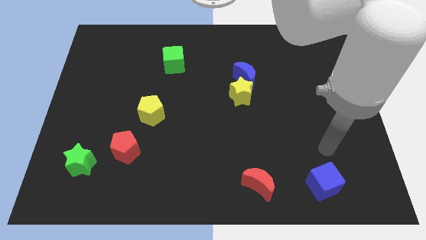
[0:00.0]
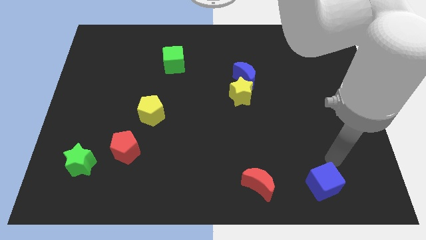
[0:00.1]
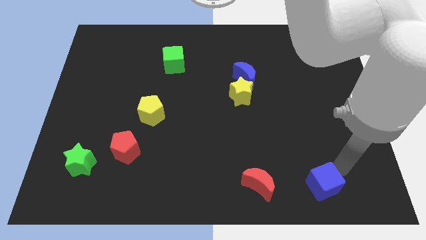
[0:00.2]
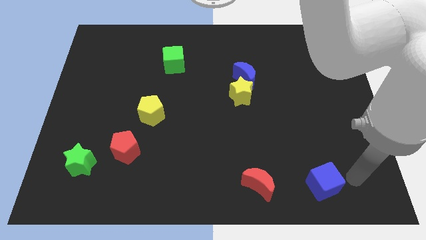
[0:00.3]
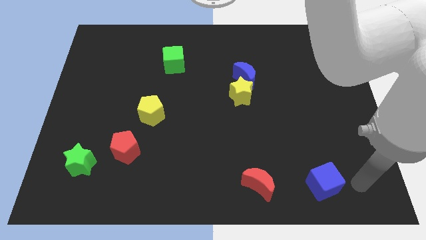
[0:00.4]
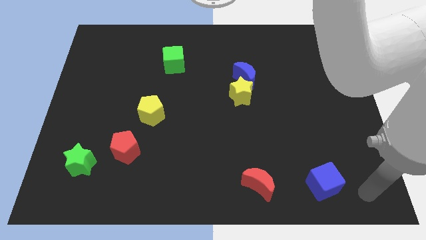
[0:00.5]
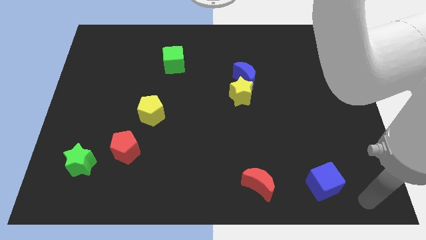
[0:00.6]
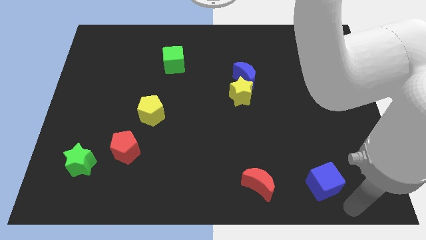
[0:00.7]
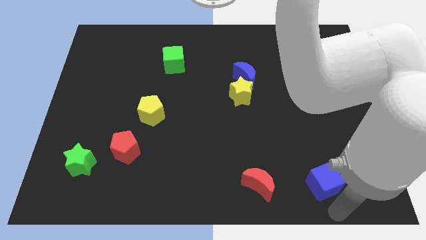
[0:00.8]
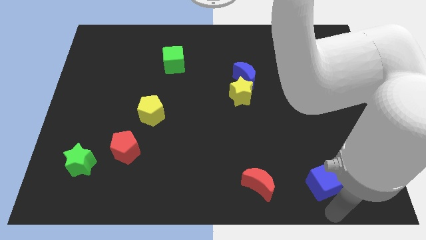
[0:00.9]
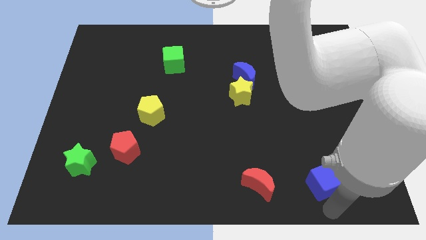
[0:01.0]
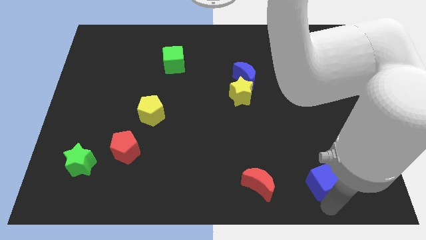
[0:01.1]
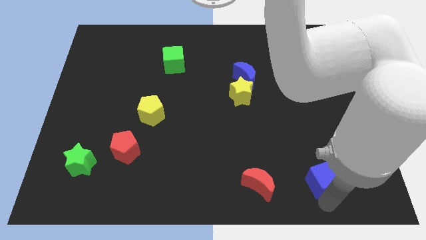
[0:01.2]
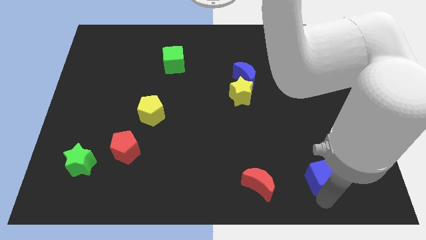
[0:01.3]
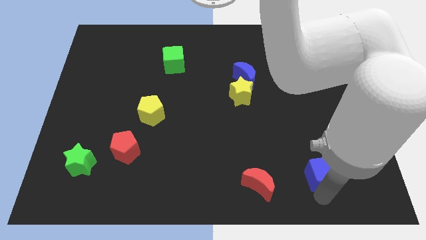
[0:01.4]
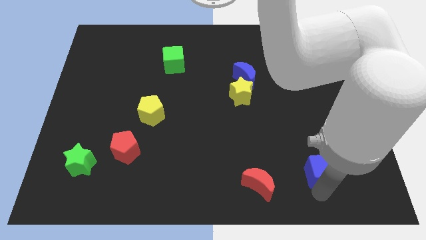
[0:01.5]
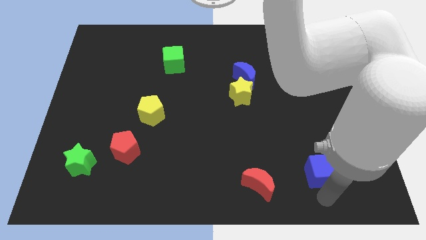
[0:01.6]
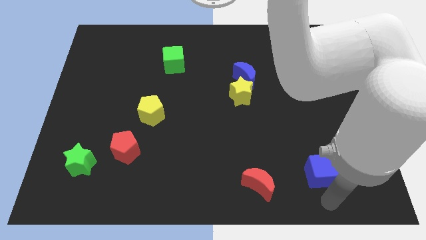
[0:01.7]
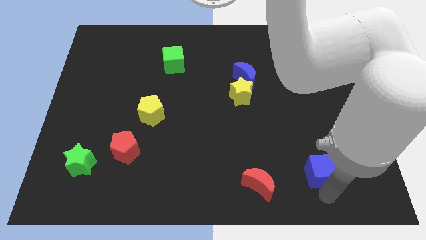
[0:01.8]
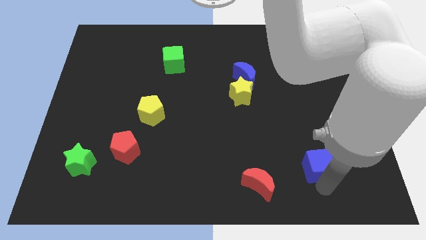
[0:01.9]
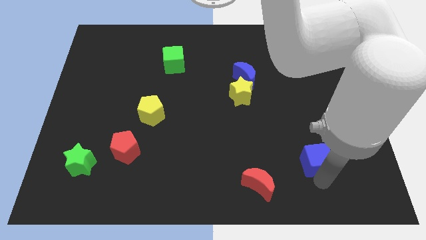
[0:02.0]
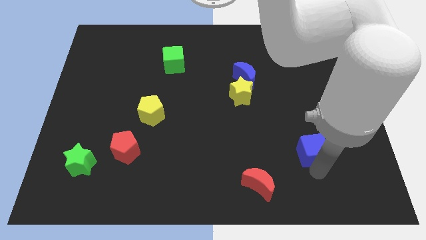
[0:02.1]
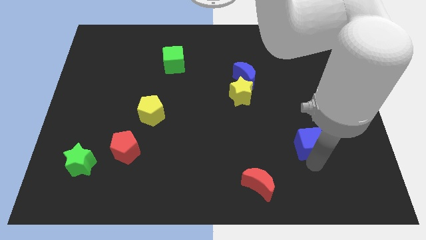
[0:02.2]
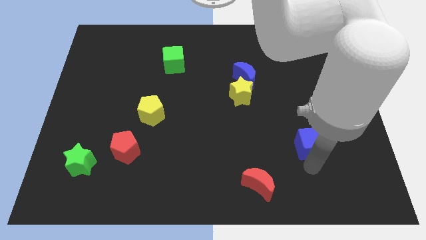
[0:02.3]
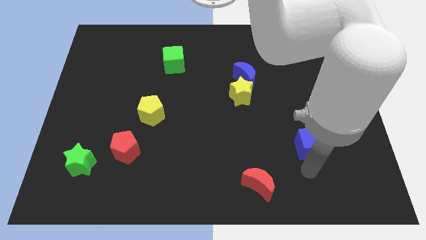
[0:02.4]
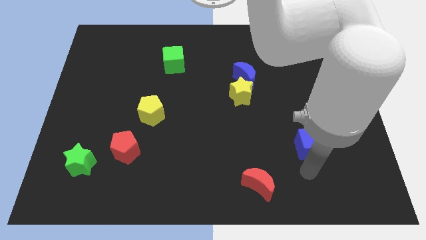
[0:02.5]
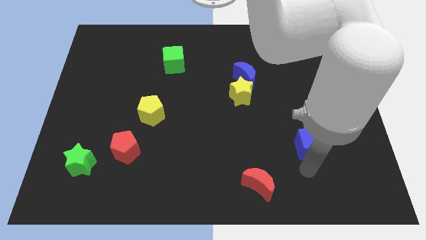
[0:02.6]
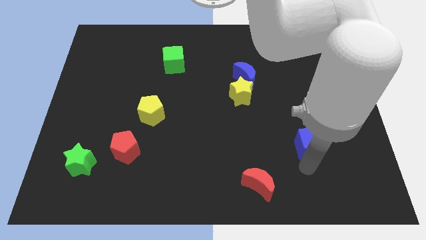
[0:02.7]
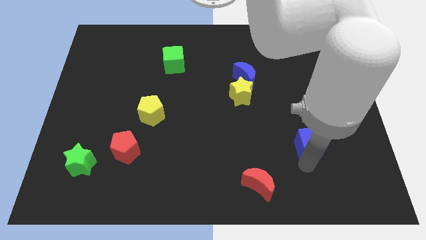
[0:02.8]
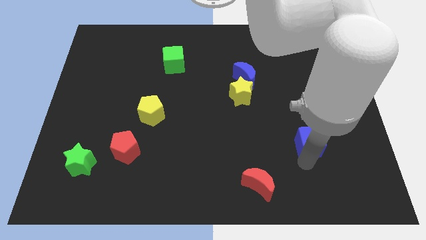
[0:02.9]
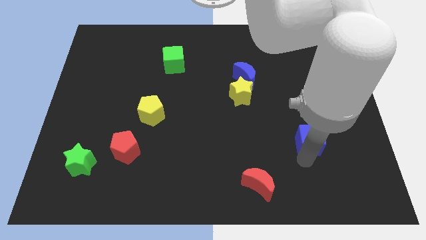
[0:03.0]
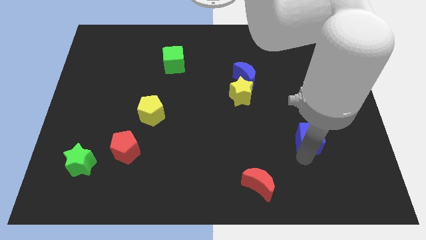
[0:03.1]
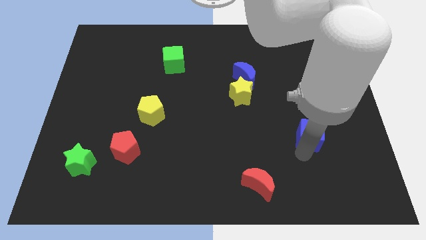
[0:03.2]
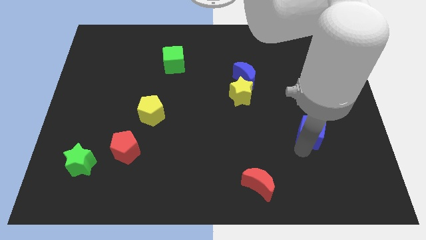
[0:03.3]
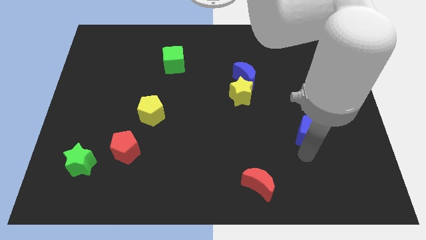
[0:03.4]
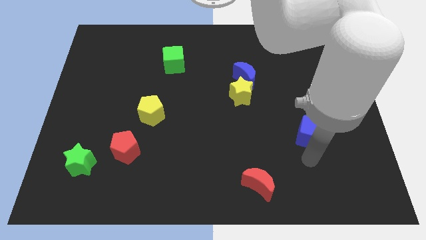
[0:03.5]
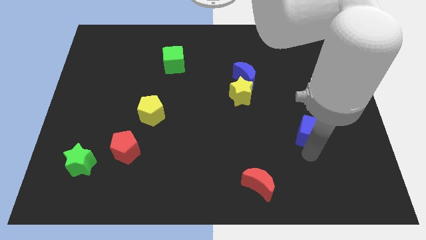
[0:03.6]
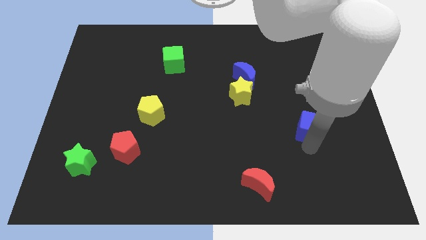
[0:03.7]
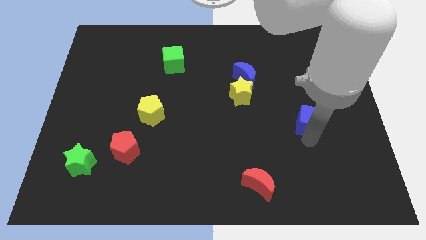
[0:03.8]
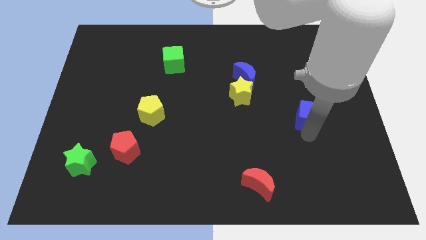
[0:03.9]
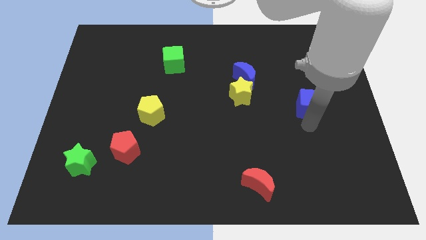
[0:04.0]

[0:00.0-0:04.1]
slide the blue cube upwards

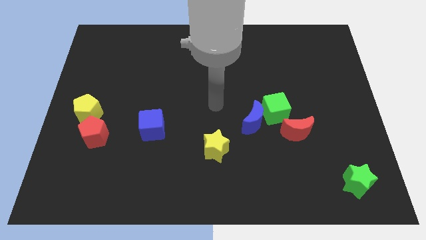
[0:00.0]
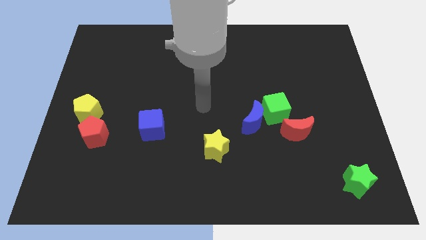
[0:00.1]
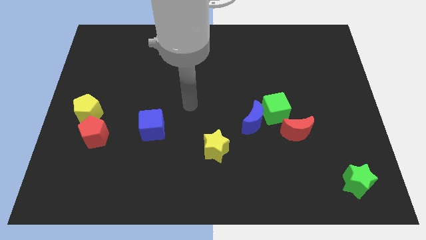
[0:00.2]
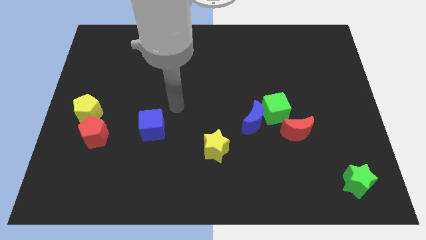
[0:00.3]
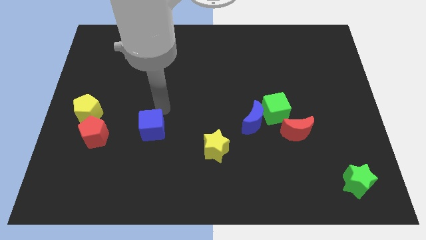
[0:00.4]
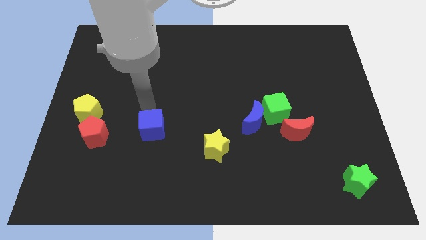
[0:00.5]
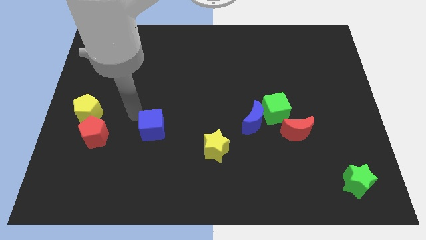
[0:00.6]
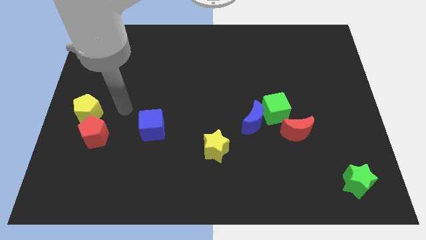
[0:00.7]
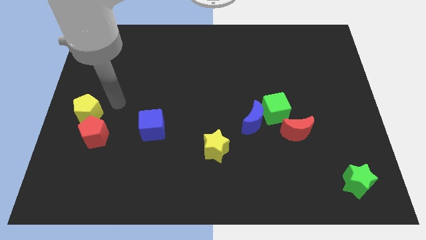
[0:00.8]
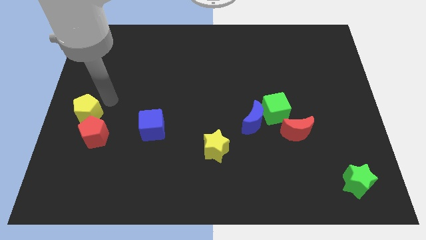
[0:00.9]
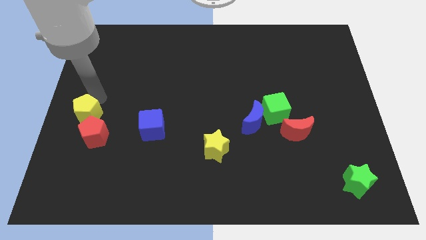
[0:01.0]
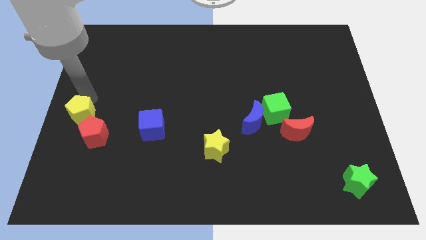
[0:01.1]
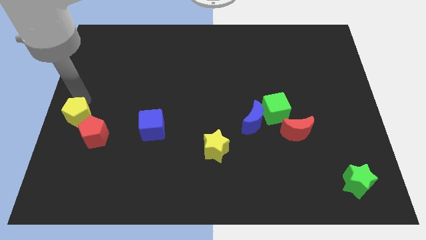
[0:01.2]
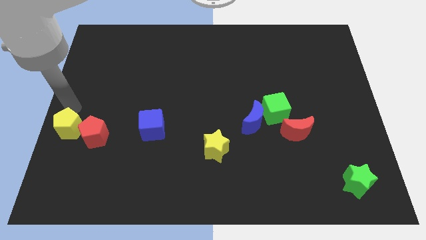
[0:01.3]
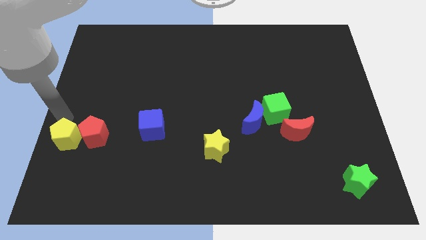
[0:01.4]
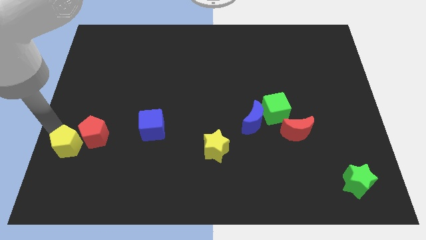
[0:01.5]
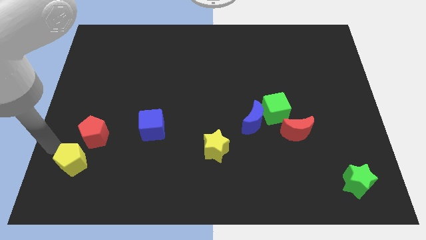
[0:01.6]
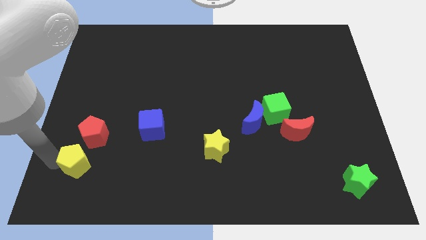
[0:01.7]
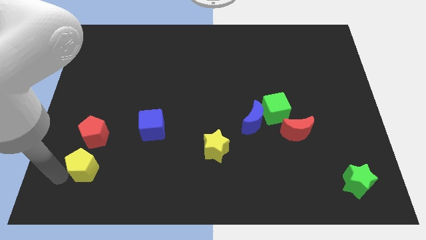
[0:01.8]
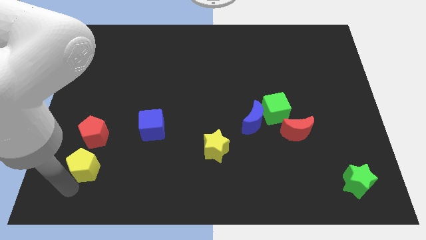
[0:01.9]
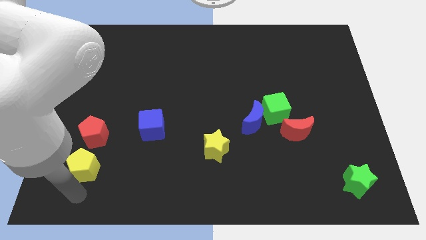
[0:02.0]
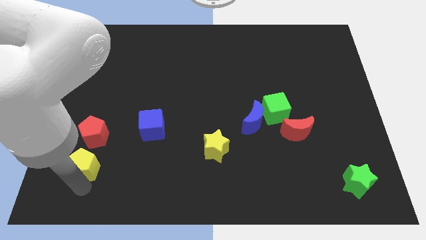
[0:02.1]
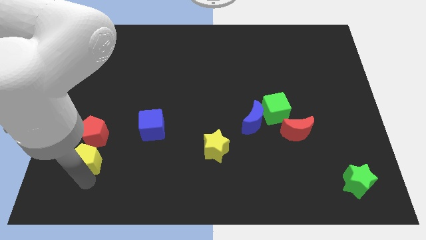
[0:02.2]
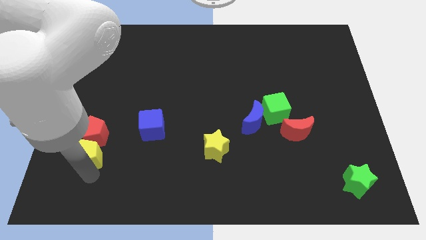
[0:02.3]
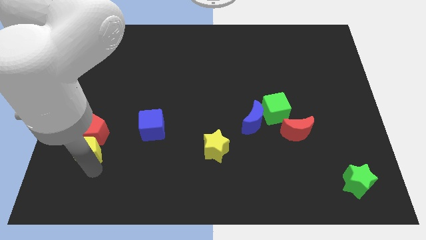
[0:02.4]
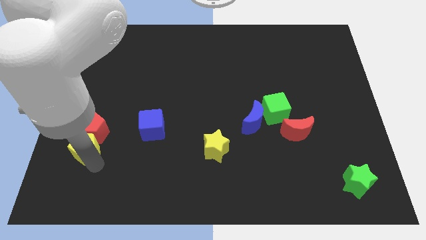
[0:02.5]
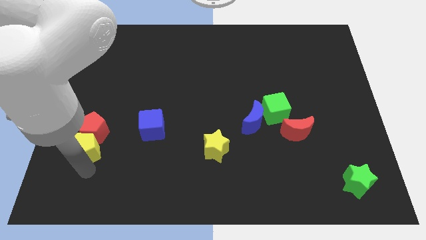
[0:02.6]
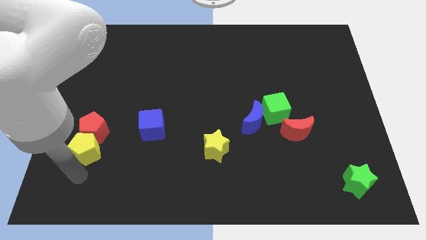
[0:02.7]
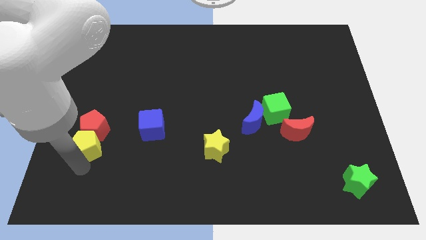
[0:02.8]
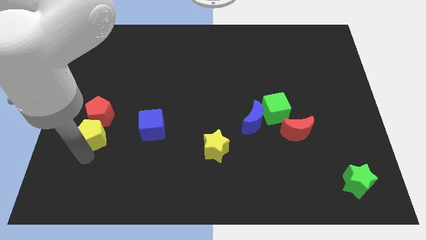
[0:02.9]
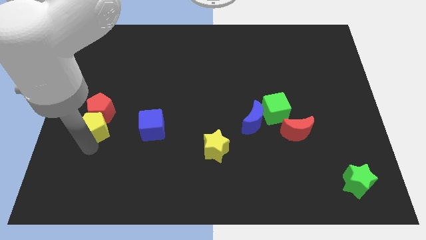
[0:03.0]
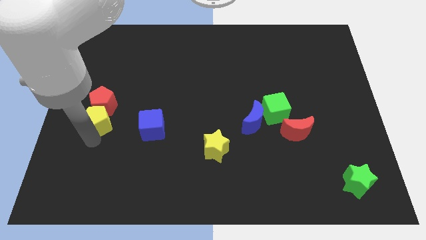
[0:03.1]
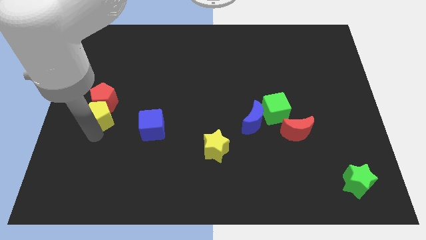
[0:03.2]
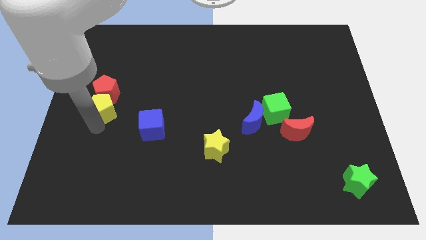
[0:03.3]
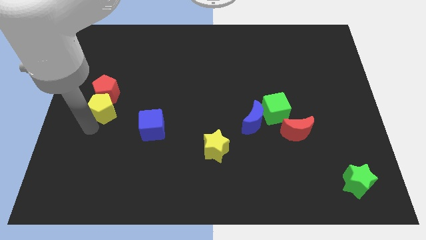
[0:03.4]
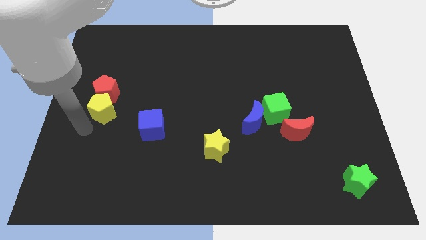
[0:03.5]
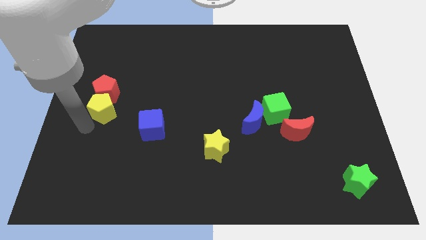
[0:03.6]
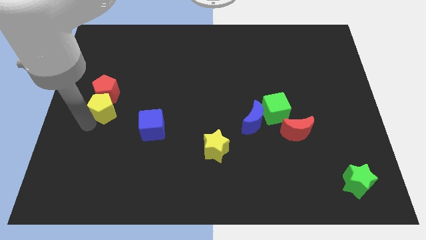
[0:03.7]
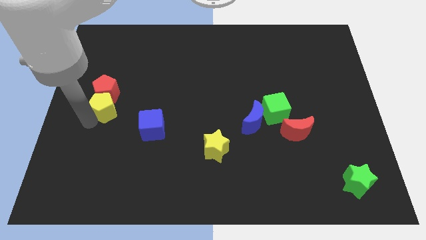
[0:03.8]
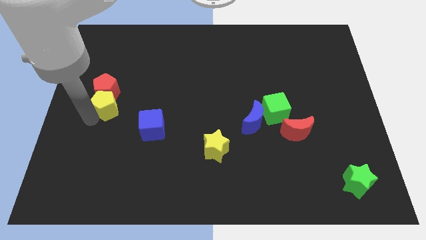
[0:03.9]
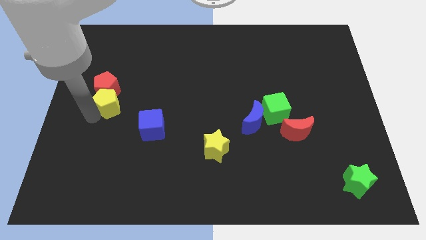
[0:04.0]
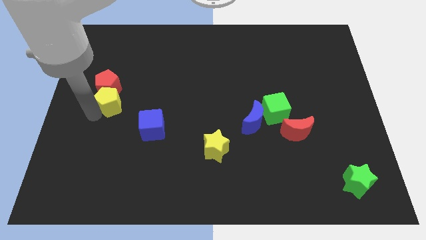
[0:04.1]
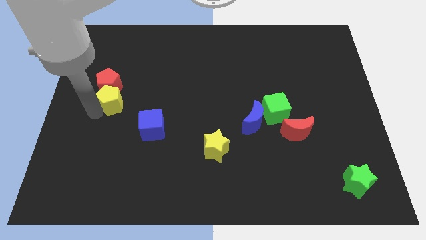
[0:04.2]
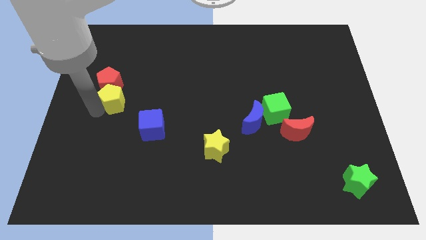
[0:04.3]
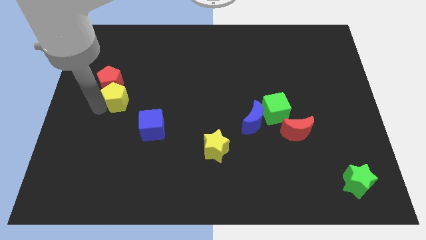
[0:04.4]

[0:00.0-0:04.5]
slide the yellow pentagon a little upwards and to the right
